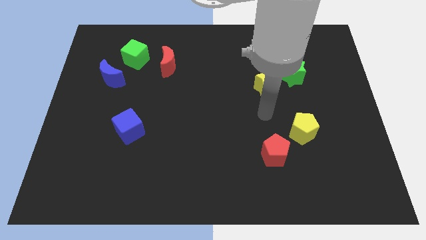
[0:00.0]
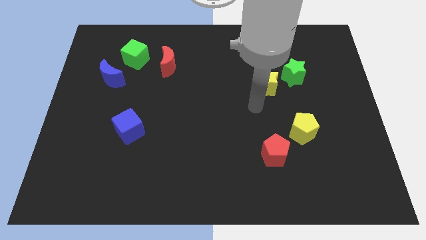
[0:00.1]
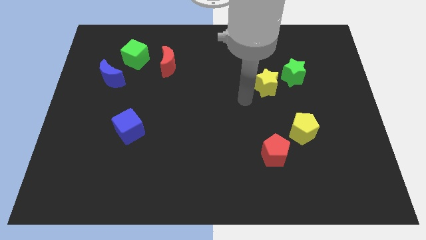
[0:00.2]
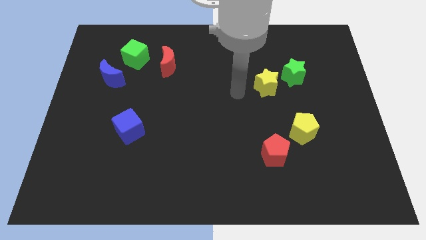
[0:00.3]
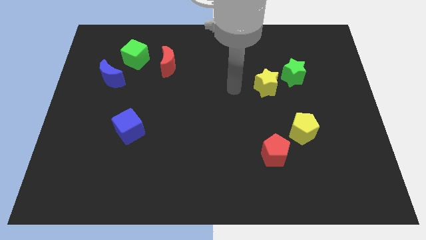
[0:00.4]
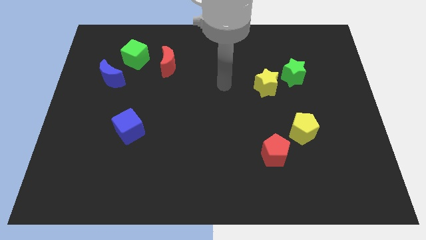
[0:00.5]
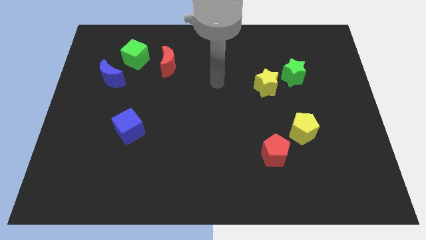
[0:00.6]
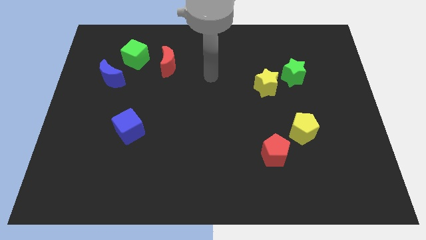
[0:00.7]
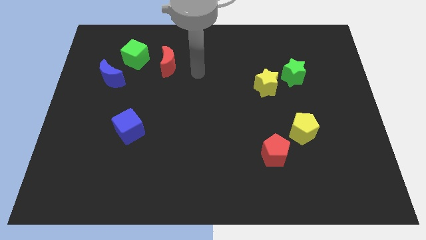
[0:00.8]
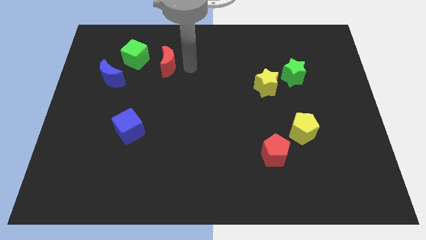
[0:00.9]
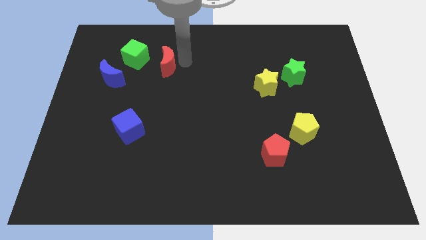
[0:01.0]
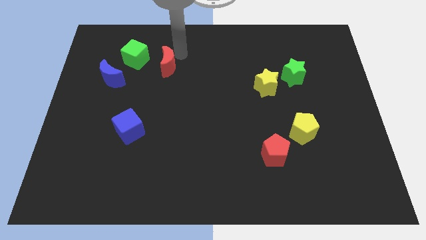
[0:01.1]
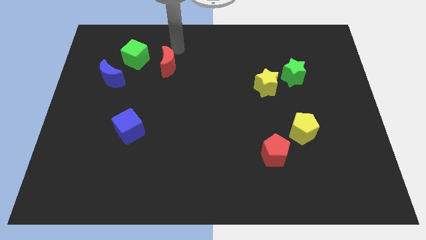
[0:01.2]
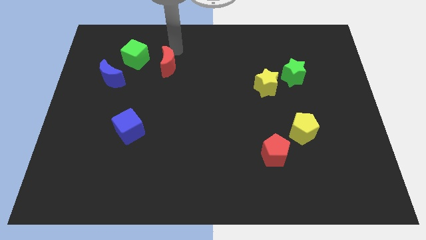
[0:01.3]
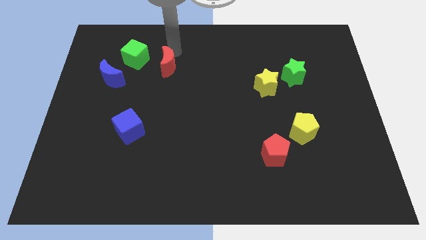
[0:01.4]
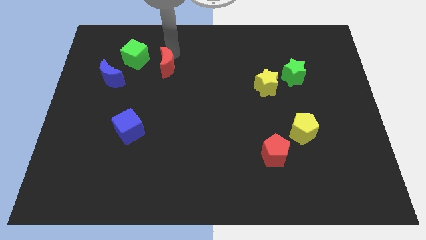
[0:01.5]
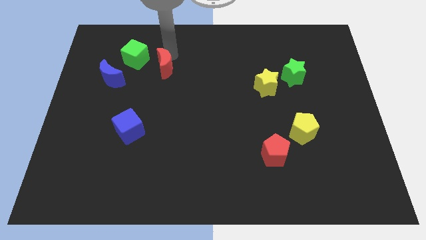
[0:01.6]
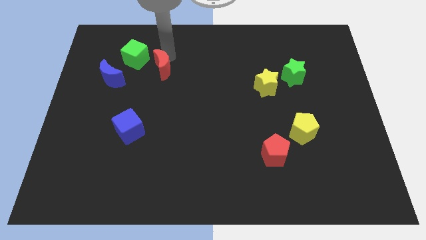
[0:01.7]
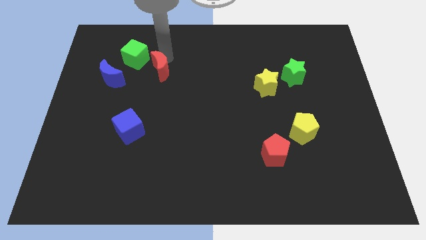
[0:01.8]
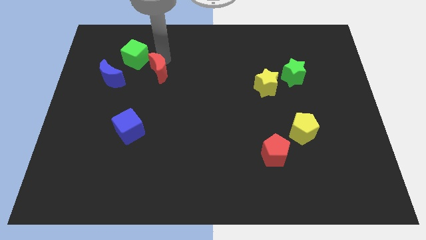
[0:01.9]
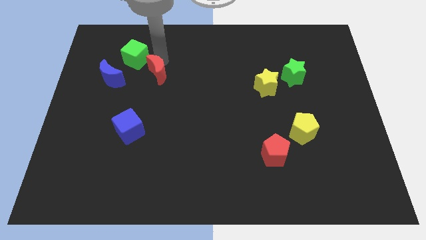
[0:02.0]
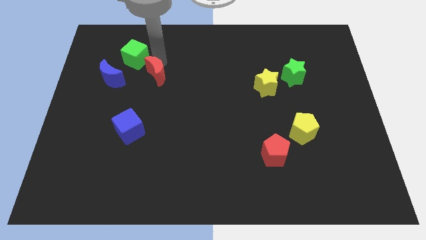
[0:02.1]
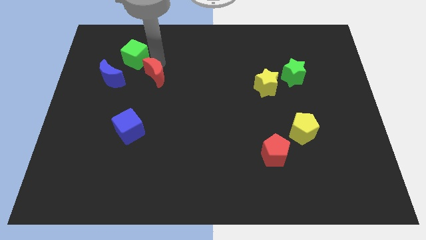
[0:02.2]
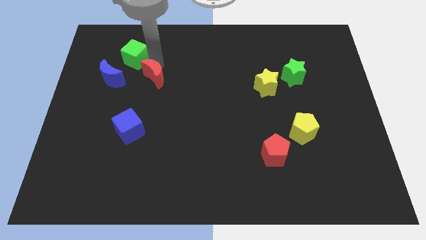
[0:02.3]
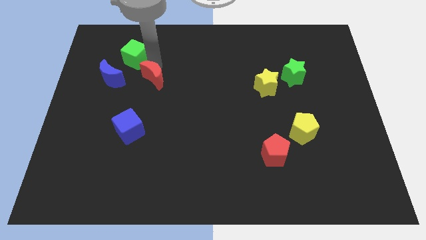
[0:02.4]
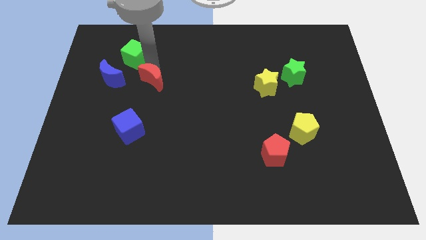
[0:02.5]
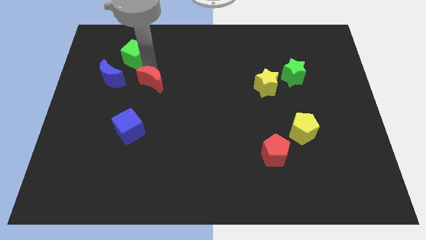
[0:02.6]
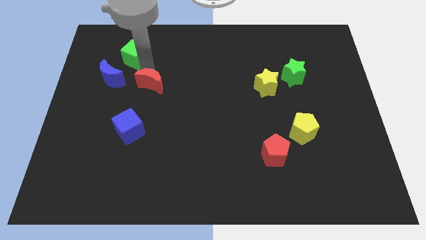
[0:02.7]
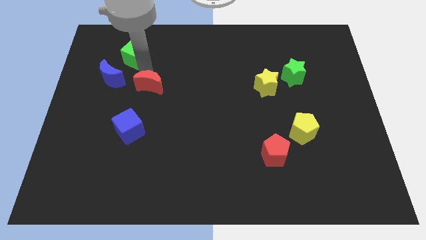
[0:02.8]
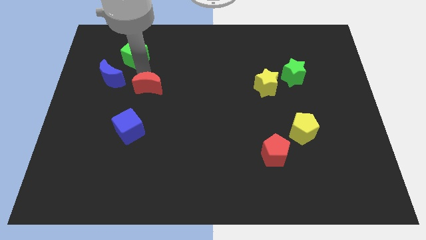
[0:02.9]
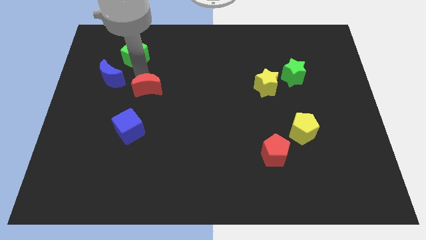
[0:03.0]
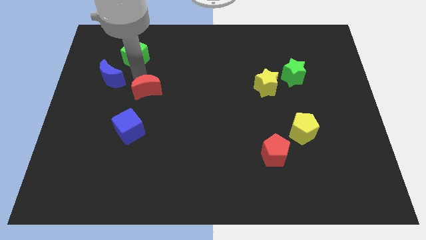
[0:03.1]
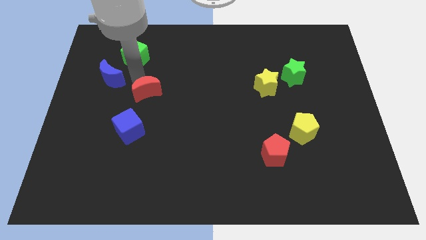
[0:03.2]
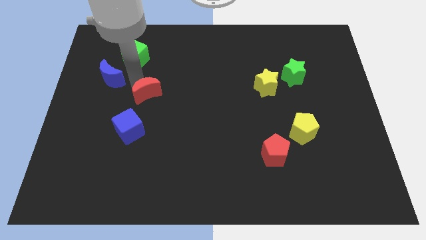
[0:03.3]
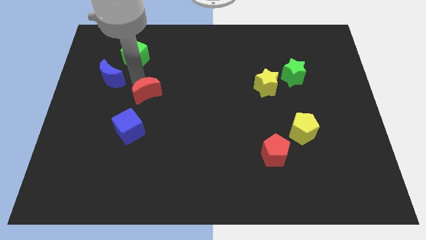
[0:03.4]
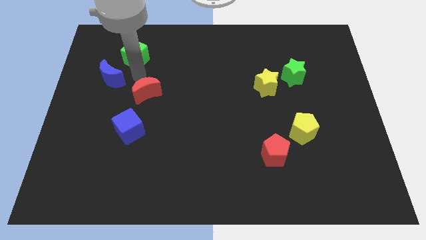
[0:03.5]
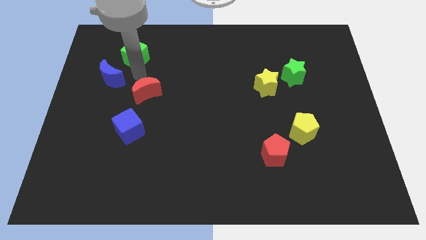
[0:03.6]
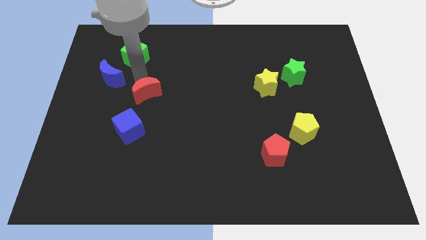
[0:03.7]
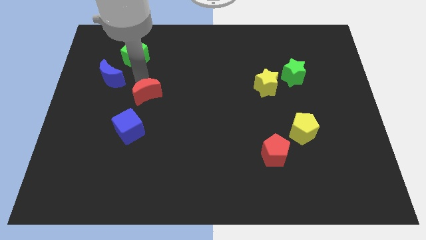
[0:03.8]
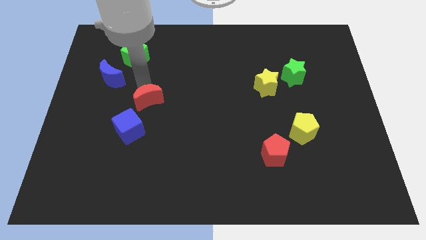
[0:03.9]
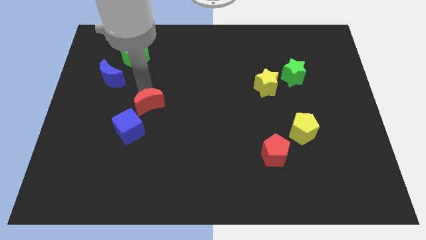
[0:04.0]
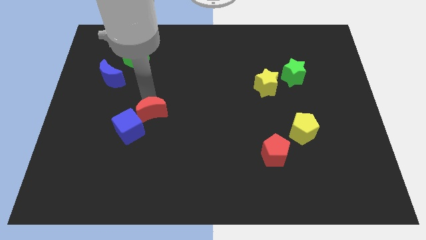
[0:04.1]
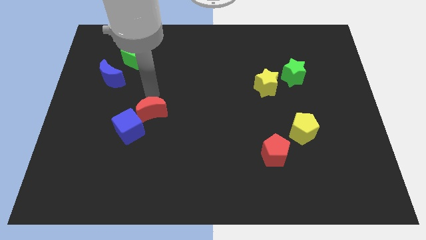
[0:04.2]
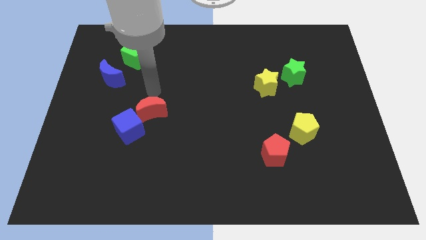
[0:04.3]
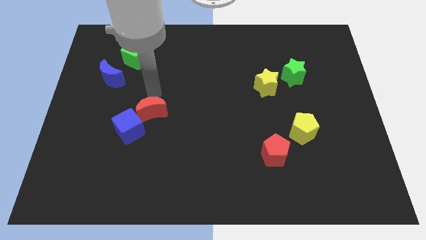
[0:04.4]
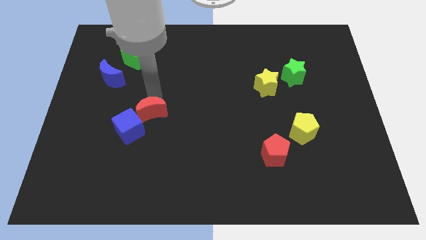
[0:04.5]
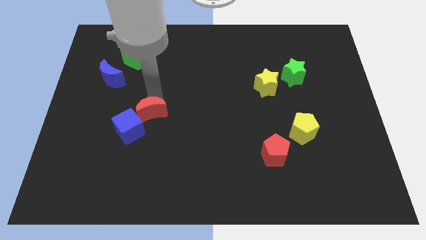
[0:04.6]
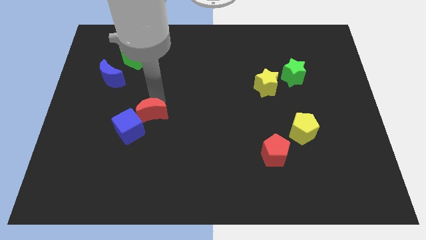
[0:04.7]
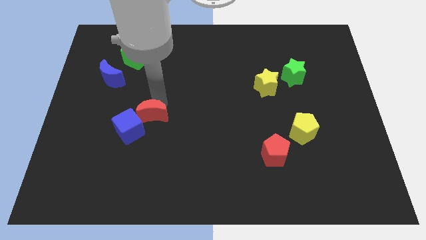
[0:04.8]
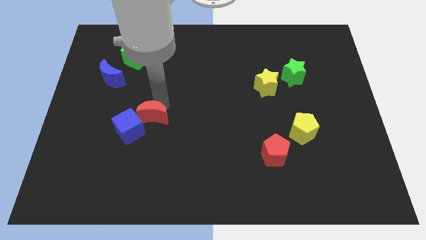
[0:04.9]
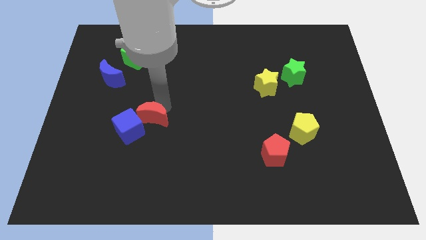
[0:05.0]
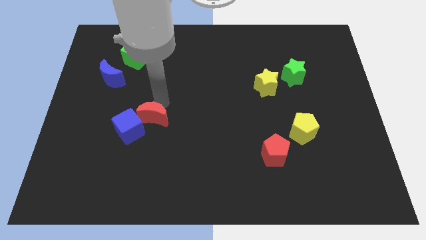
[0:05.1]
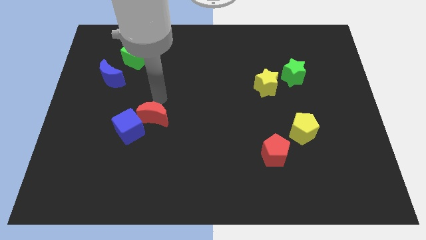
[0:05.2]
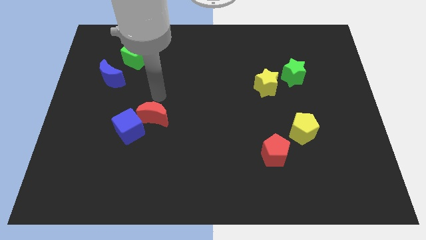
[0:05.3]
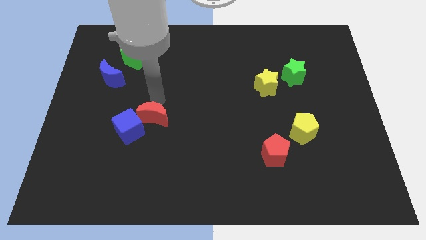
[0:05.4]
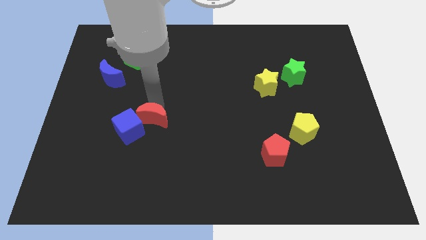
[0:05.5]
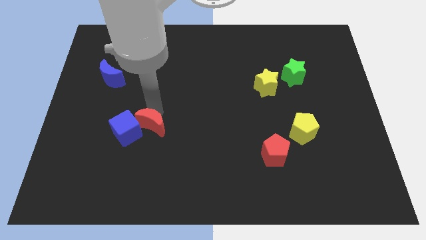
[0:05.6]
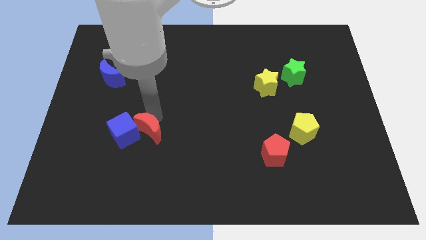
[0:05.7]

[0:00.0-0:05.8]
slide the red moon downwards

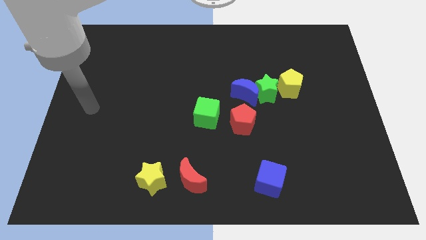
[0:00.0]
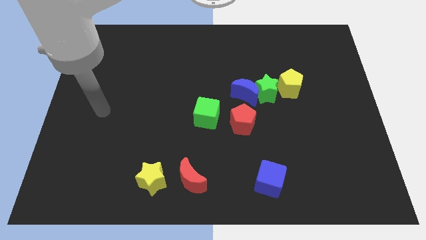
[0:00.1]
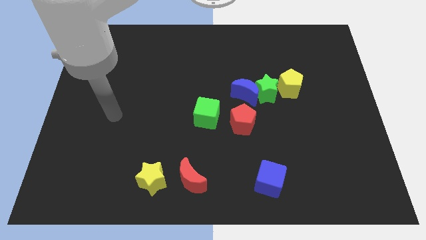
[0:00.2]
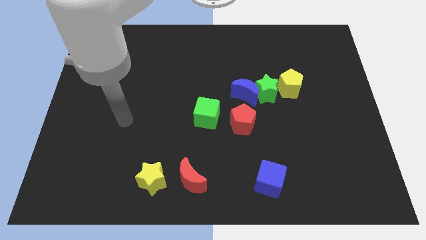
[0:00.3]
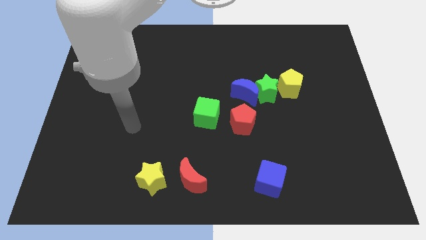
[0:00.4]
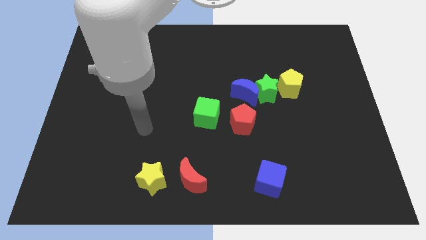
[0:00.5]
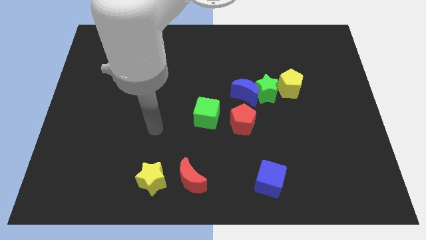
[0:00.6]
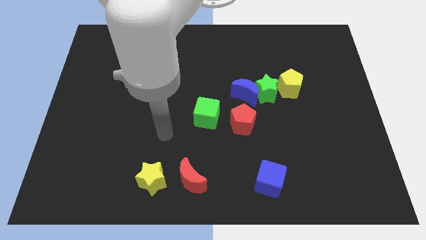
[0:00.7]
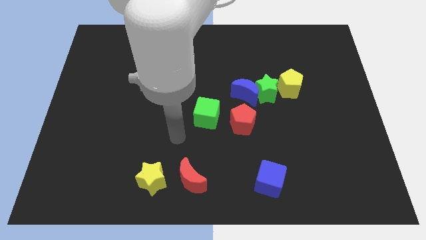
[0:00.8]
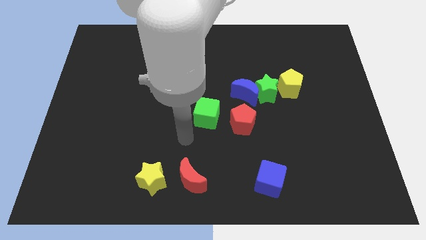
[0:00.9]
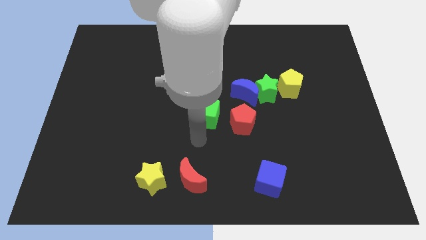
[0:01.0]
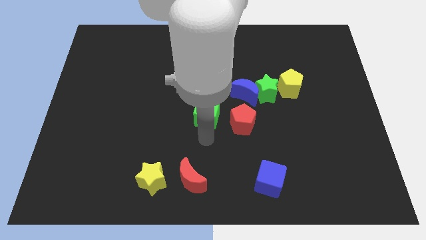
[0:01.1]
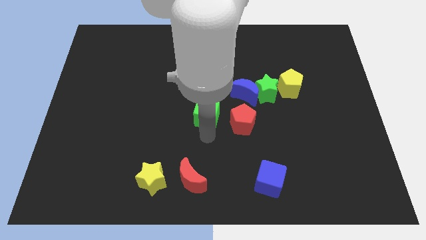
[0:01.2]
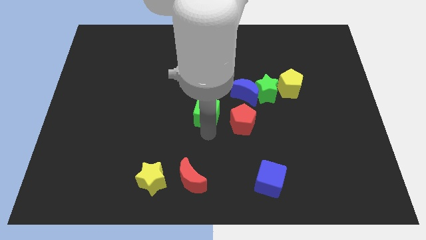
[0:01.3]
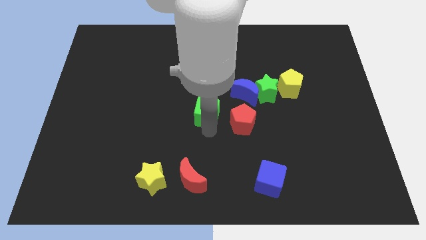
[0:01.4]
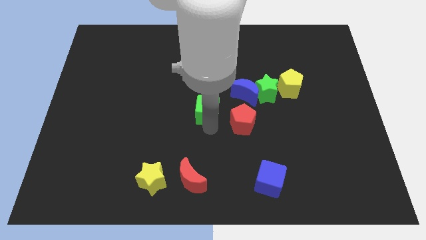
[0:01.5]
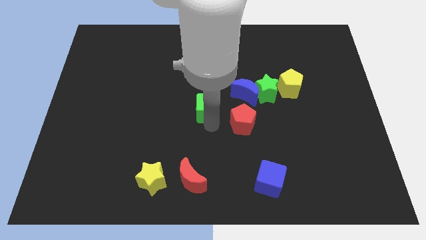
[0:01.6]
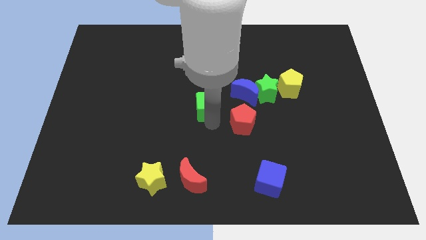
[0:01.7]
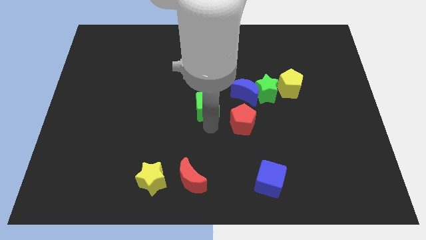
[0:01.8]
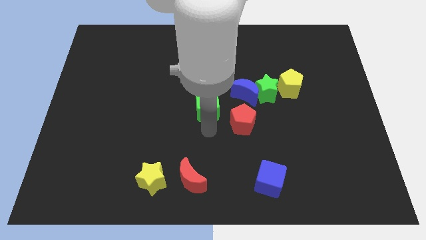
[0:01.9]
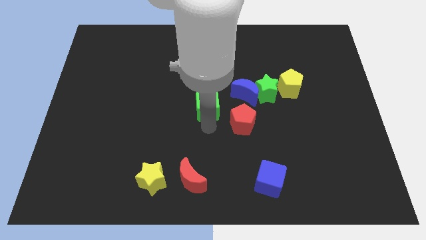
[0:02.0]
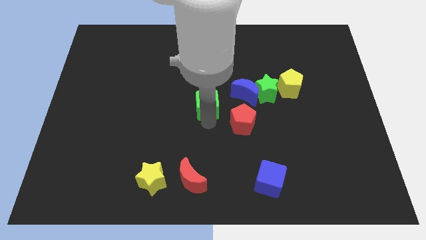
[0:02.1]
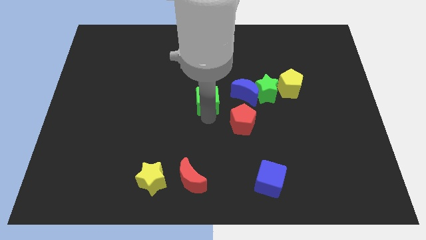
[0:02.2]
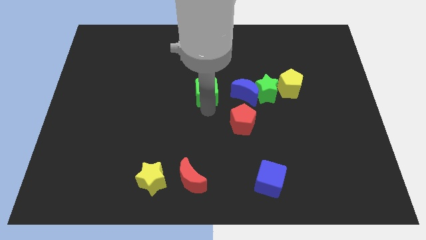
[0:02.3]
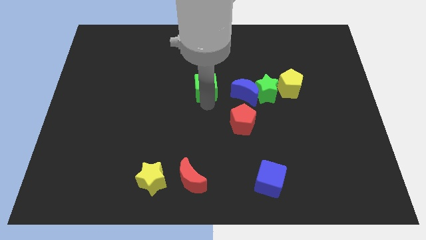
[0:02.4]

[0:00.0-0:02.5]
slightly move the green cube upwards
